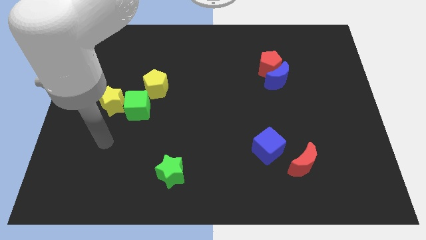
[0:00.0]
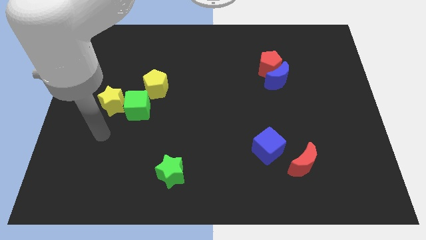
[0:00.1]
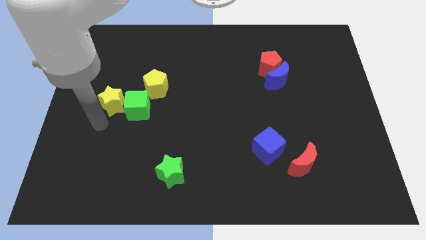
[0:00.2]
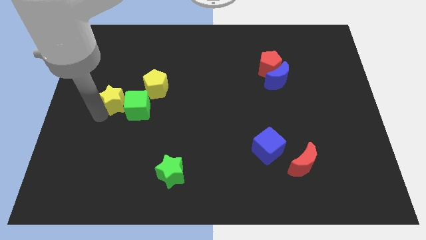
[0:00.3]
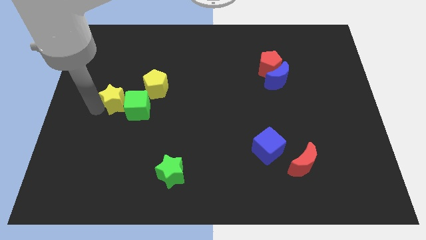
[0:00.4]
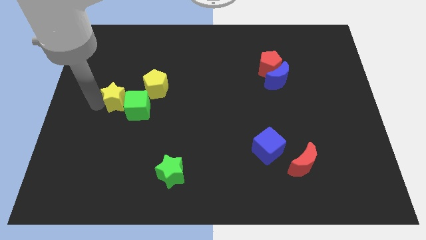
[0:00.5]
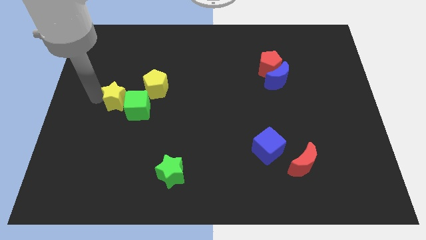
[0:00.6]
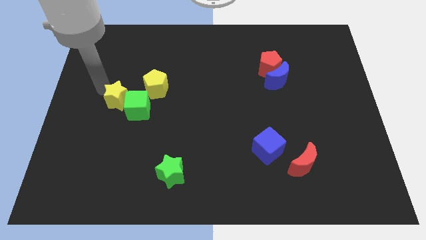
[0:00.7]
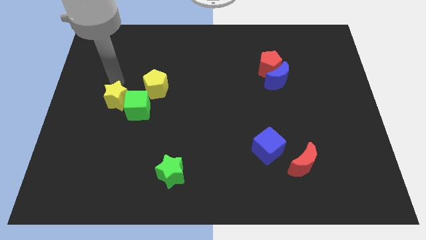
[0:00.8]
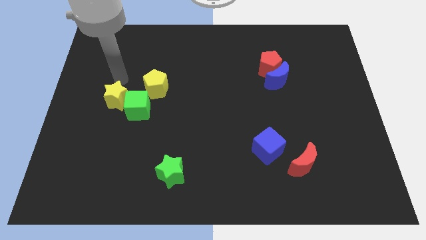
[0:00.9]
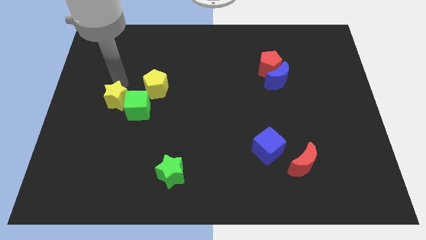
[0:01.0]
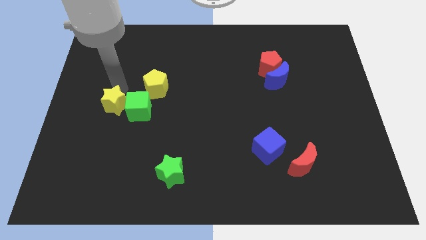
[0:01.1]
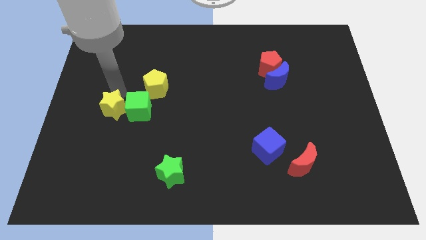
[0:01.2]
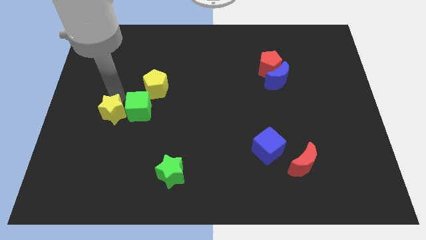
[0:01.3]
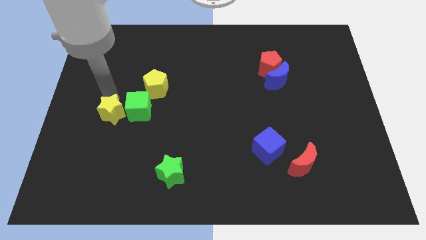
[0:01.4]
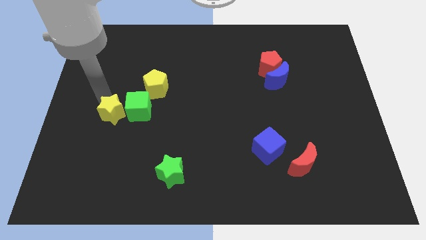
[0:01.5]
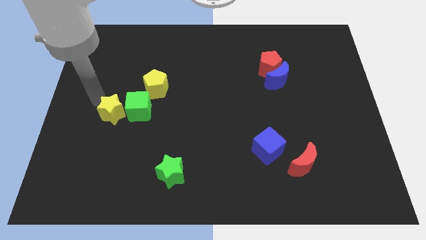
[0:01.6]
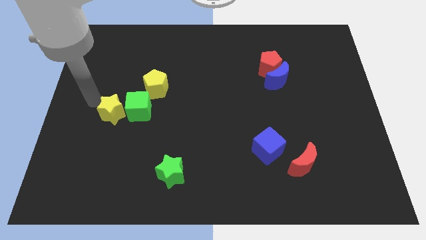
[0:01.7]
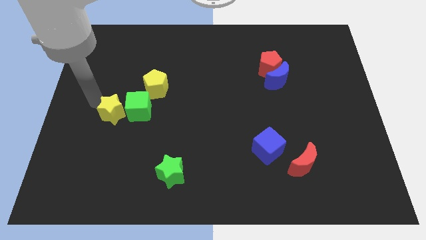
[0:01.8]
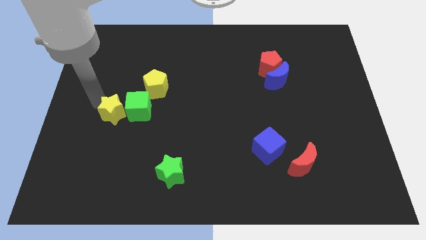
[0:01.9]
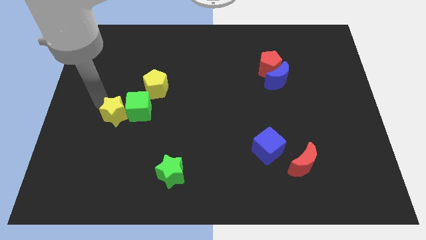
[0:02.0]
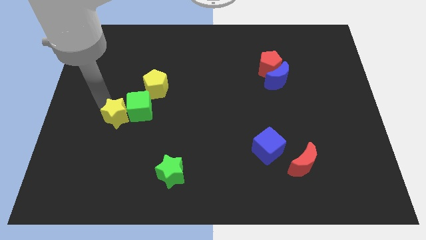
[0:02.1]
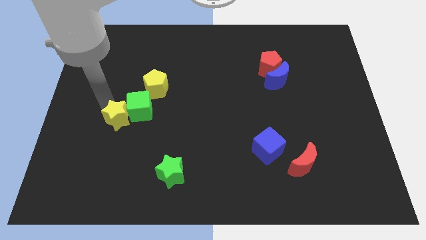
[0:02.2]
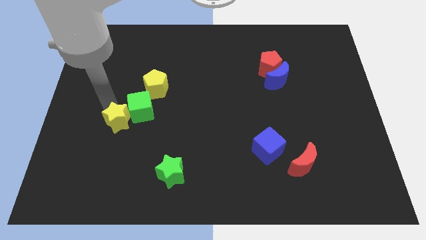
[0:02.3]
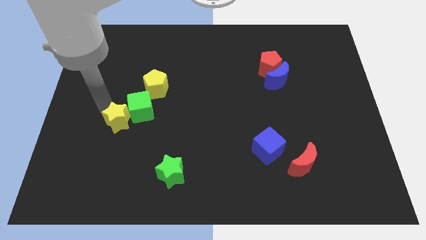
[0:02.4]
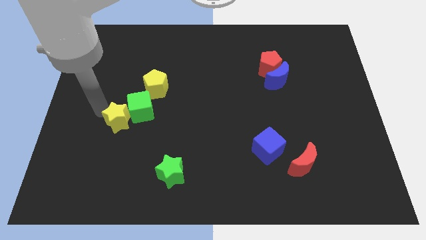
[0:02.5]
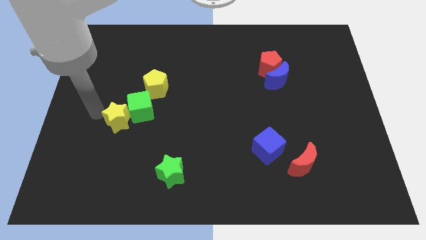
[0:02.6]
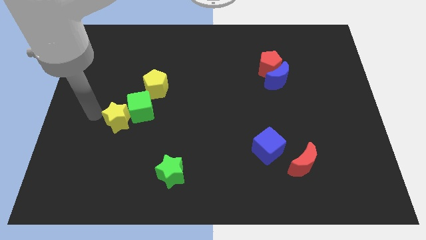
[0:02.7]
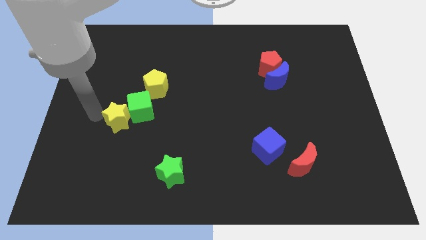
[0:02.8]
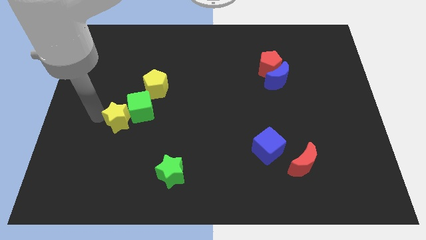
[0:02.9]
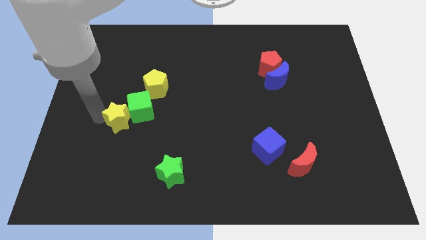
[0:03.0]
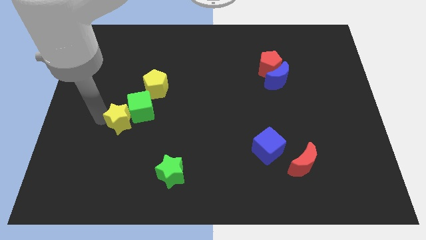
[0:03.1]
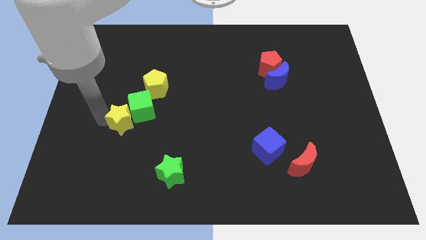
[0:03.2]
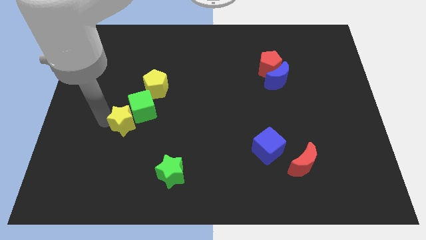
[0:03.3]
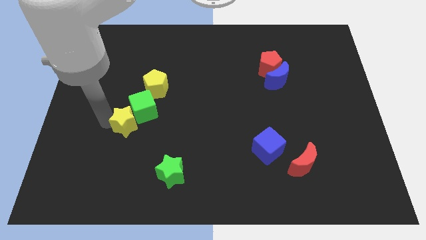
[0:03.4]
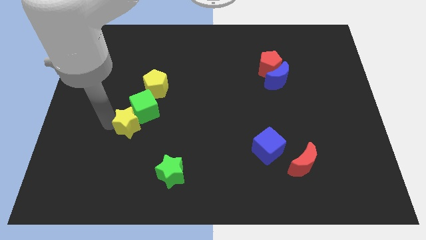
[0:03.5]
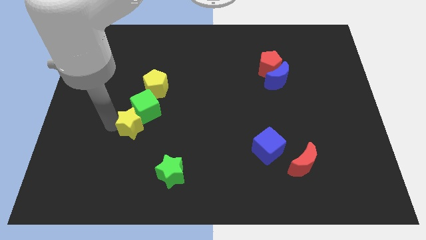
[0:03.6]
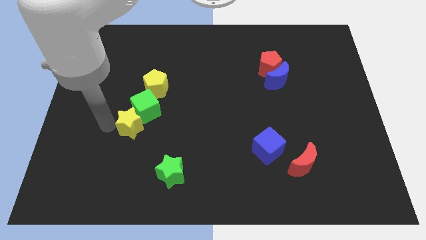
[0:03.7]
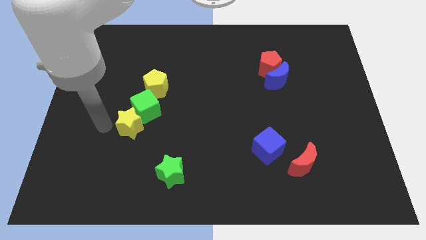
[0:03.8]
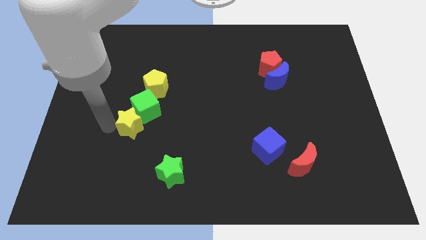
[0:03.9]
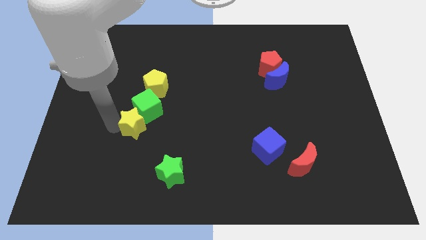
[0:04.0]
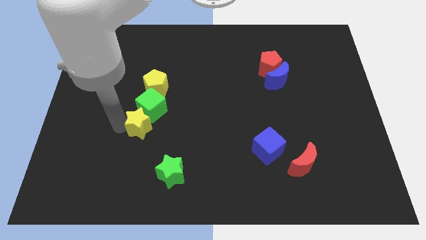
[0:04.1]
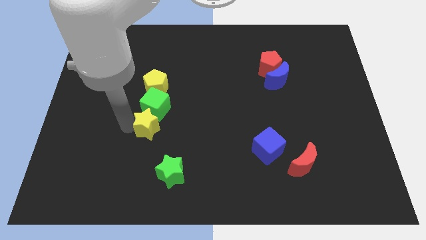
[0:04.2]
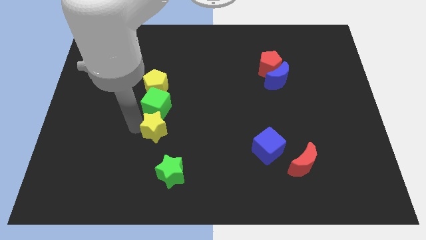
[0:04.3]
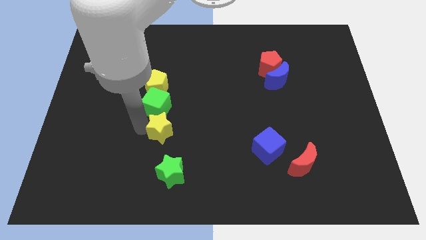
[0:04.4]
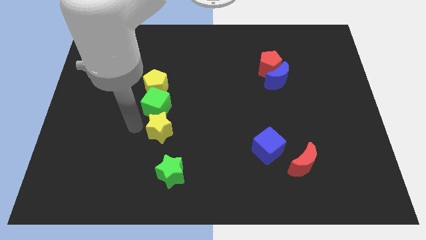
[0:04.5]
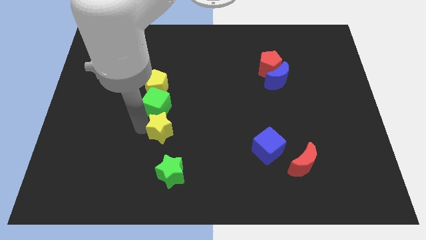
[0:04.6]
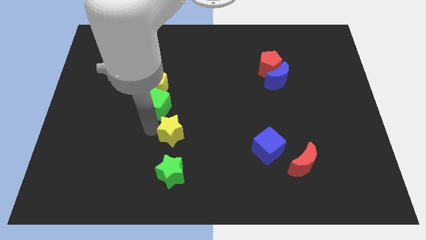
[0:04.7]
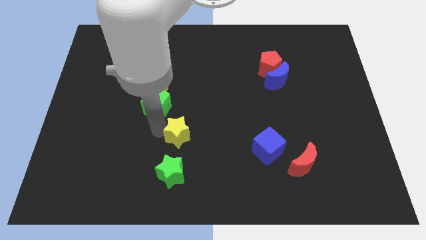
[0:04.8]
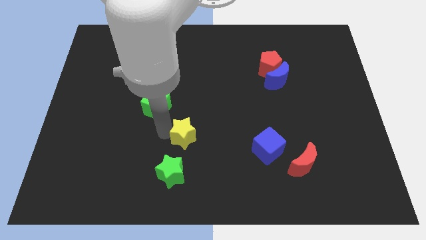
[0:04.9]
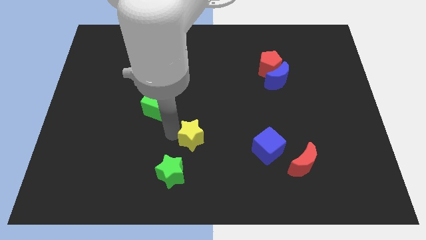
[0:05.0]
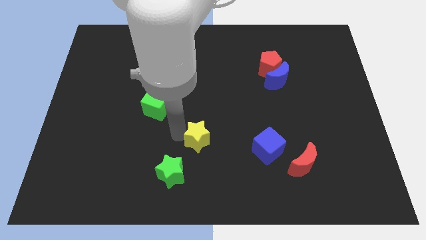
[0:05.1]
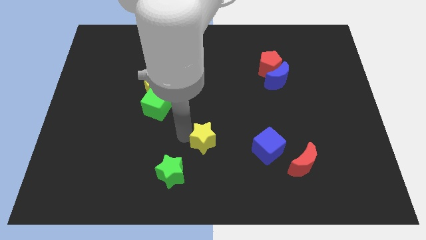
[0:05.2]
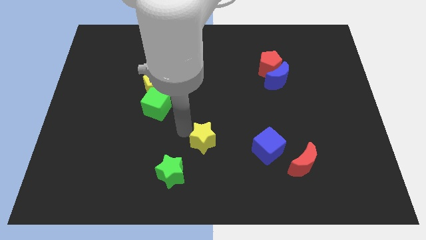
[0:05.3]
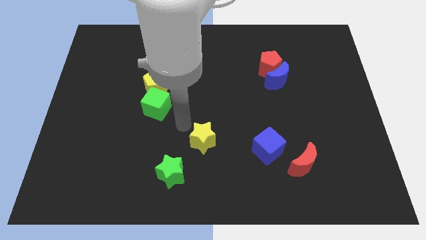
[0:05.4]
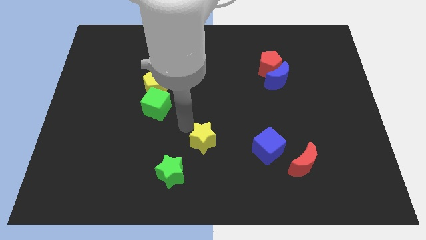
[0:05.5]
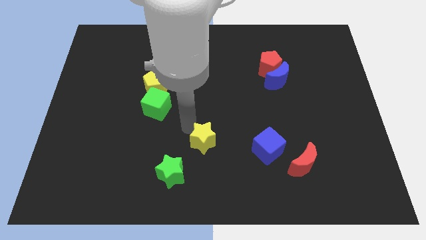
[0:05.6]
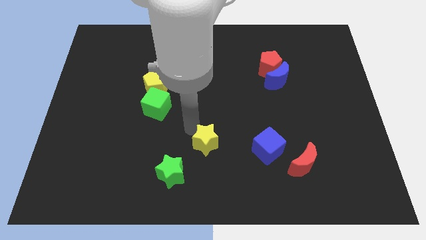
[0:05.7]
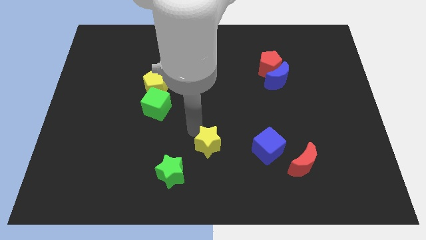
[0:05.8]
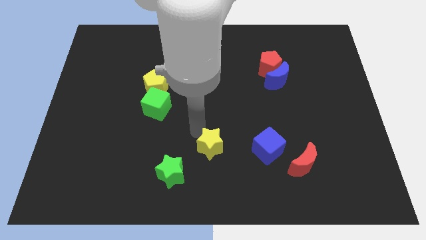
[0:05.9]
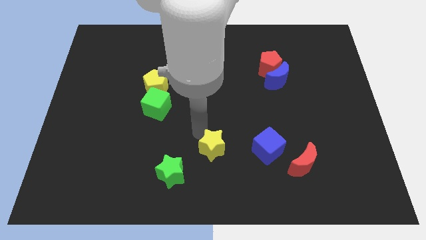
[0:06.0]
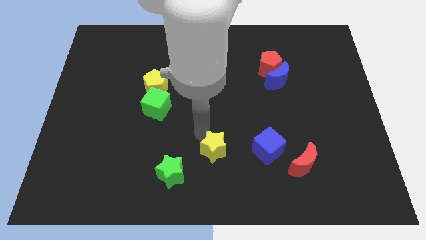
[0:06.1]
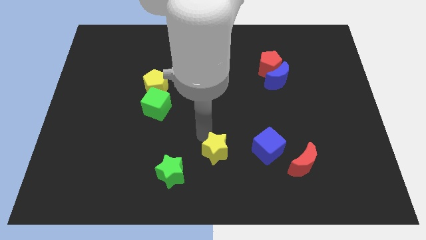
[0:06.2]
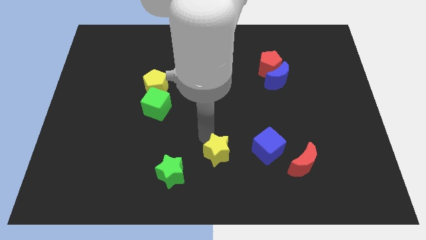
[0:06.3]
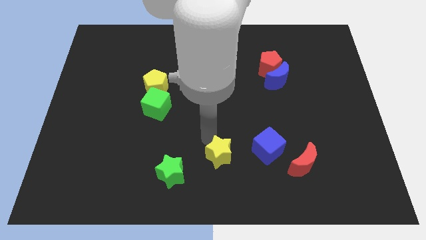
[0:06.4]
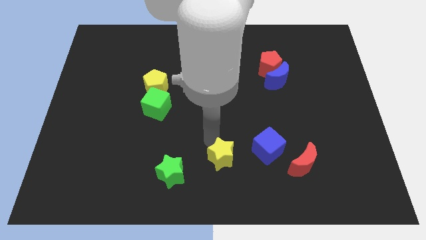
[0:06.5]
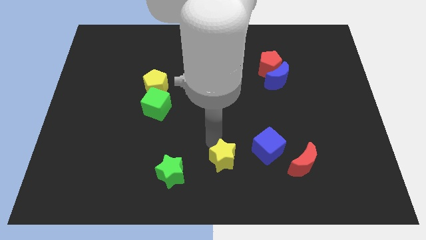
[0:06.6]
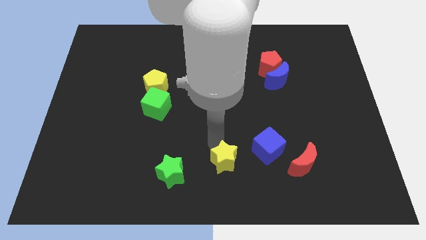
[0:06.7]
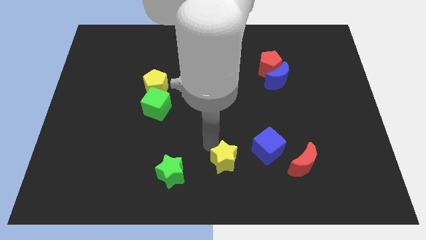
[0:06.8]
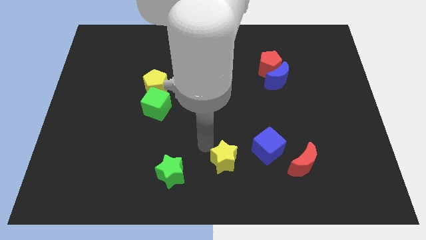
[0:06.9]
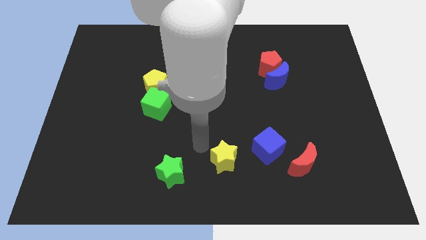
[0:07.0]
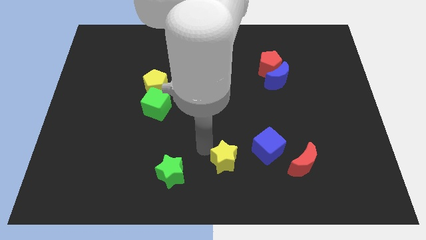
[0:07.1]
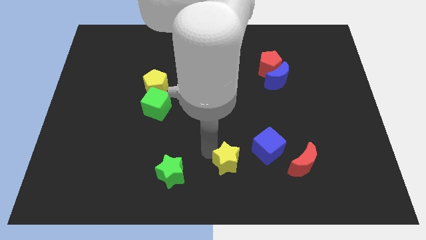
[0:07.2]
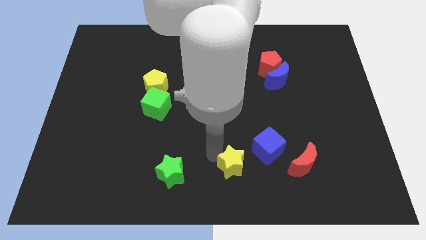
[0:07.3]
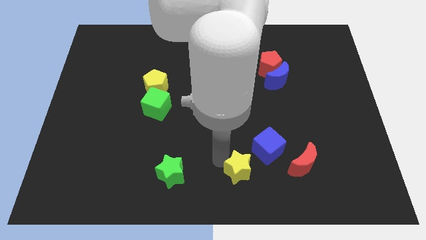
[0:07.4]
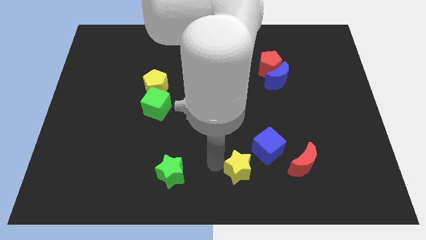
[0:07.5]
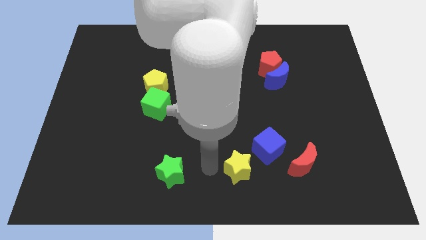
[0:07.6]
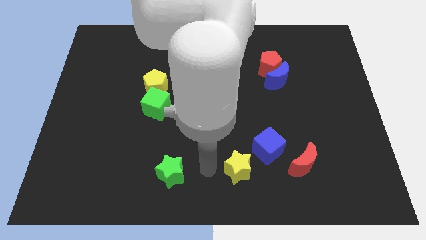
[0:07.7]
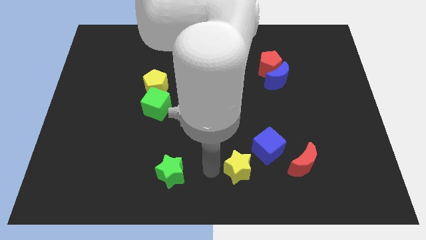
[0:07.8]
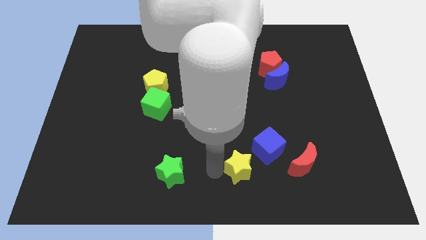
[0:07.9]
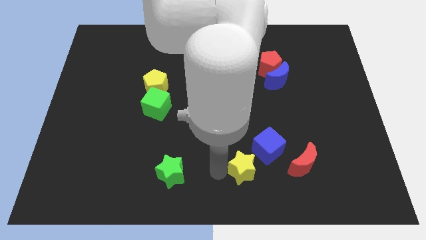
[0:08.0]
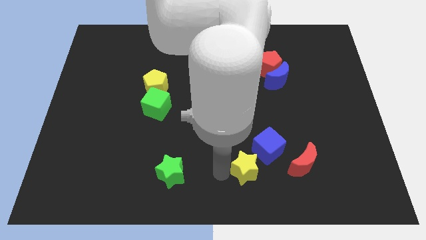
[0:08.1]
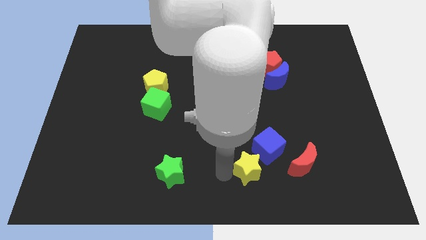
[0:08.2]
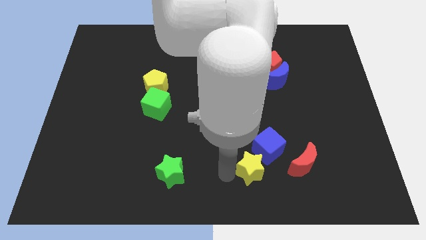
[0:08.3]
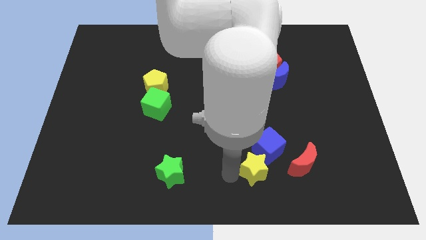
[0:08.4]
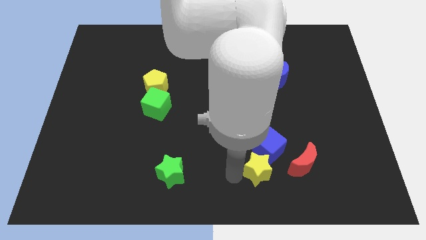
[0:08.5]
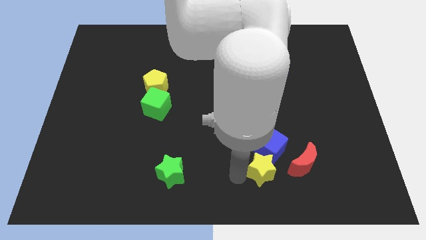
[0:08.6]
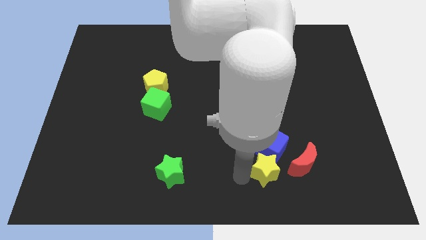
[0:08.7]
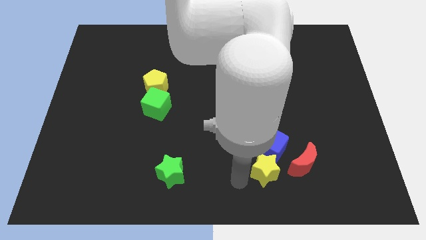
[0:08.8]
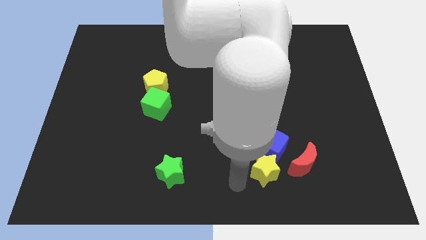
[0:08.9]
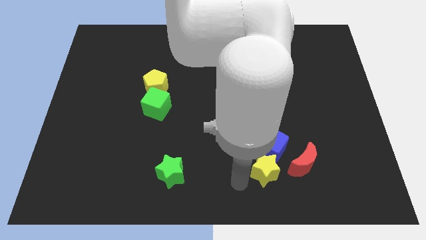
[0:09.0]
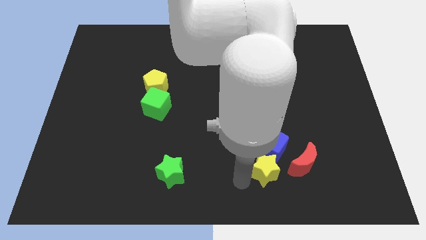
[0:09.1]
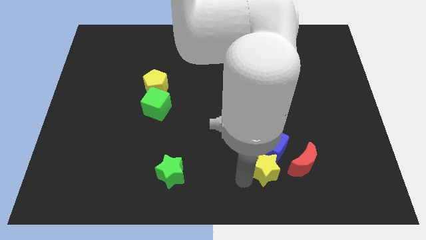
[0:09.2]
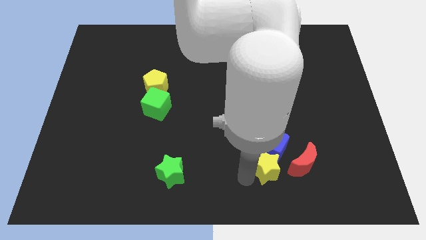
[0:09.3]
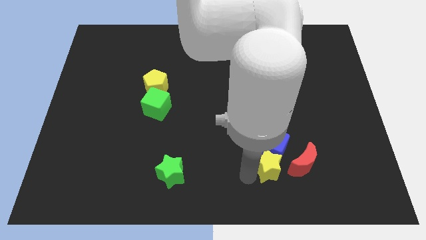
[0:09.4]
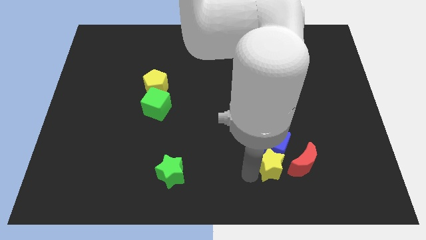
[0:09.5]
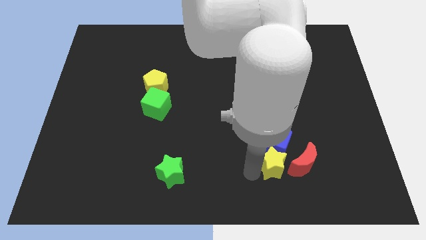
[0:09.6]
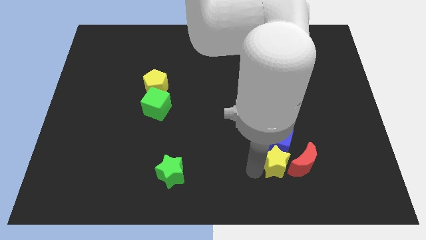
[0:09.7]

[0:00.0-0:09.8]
put the yellow star to the red moon
